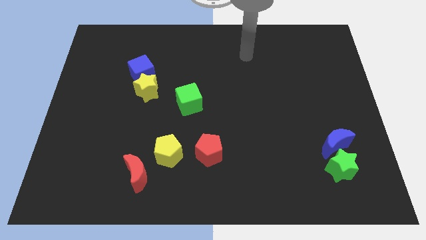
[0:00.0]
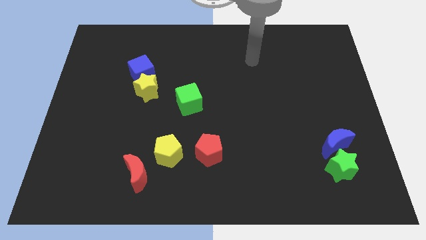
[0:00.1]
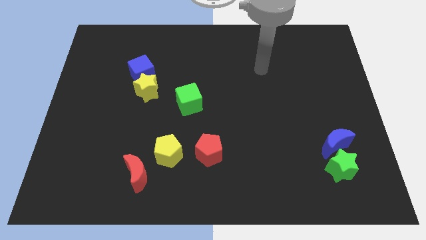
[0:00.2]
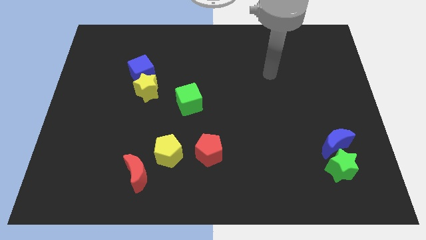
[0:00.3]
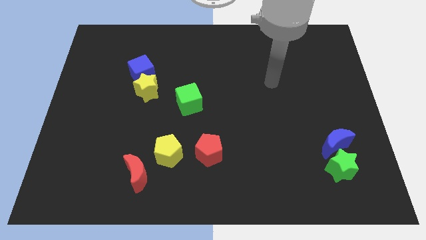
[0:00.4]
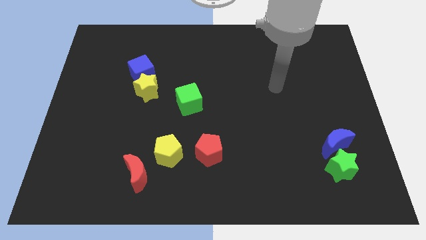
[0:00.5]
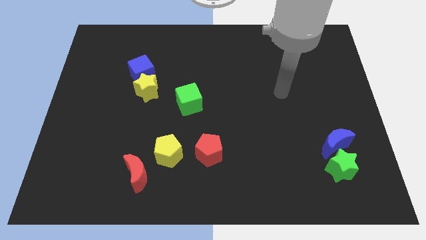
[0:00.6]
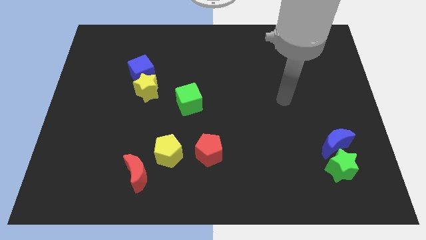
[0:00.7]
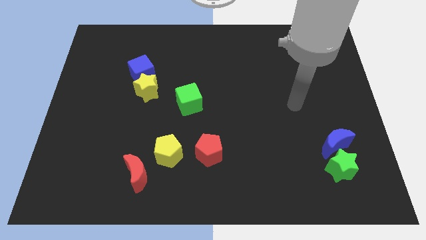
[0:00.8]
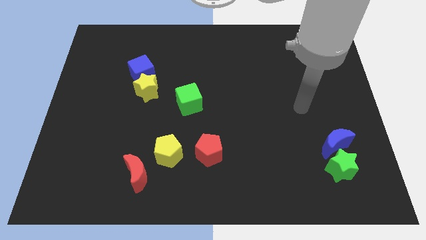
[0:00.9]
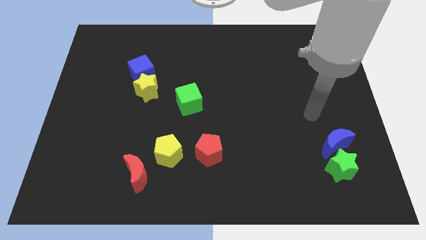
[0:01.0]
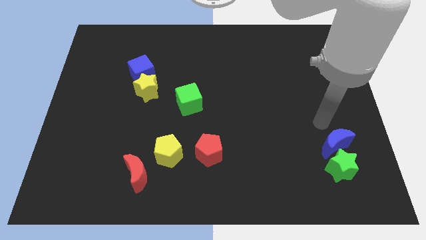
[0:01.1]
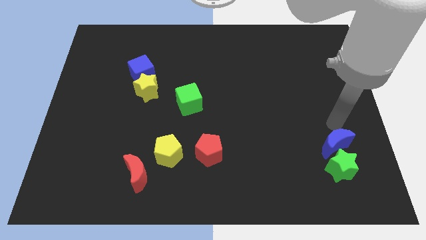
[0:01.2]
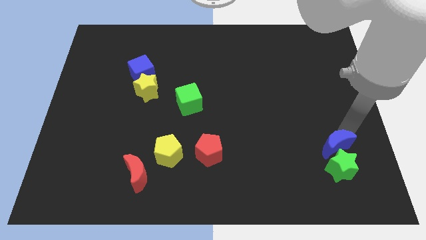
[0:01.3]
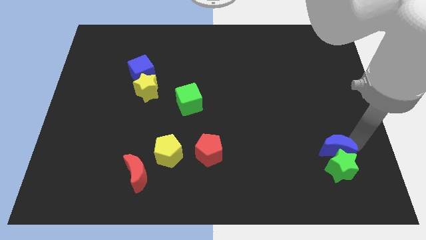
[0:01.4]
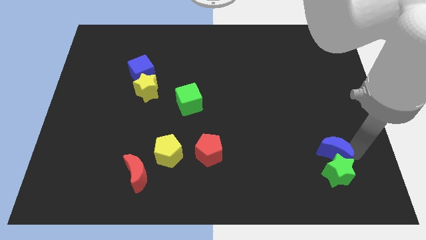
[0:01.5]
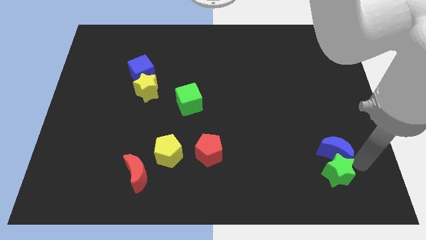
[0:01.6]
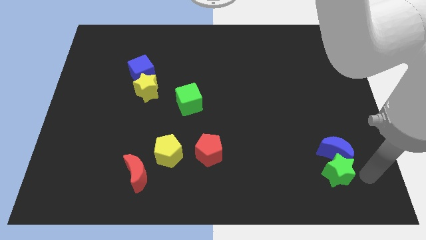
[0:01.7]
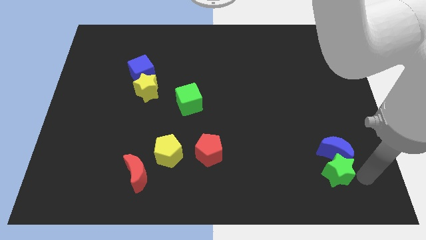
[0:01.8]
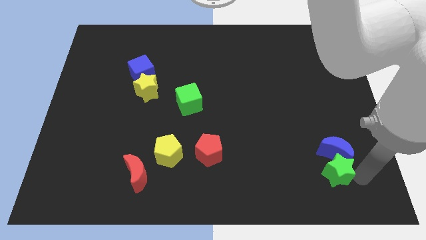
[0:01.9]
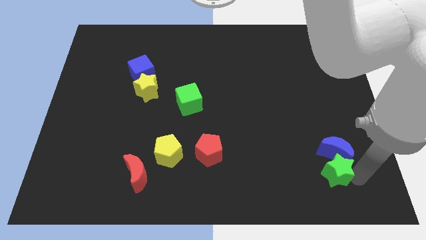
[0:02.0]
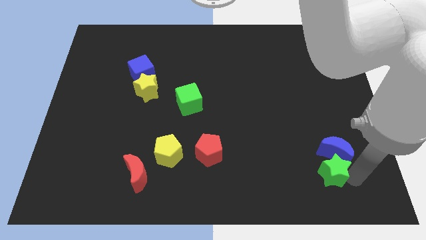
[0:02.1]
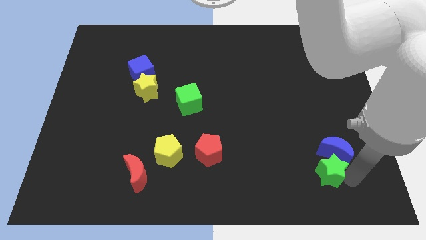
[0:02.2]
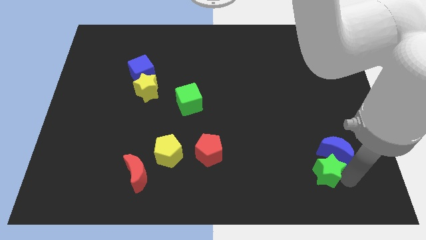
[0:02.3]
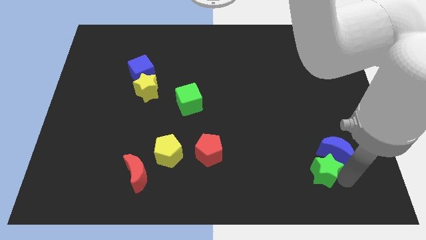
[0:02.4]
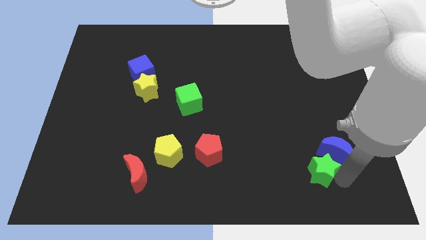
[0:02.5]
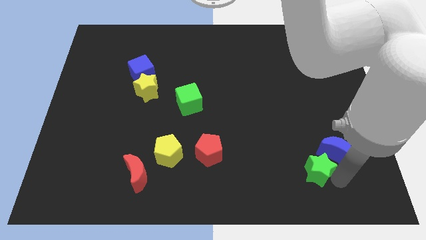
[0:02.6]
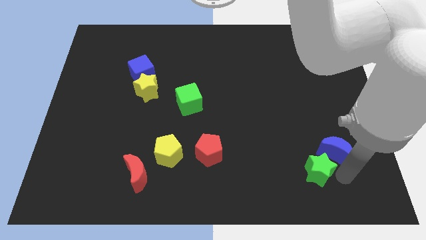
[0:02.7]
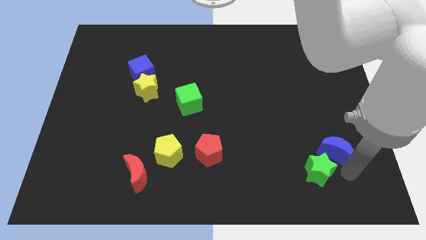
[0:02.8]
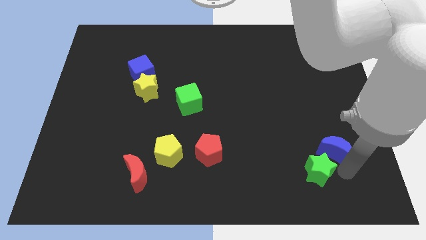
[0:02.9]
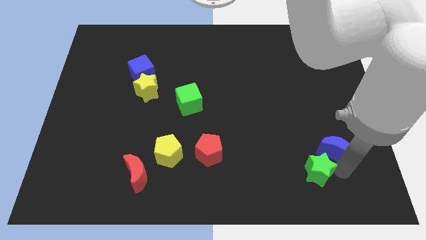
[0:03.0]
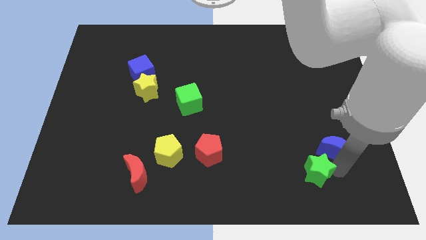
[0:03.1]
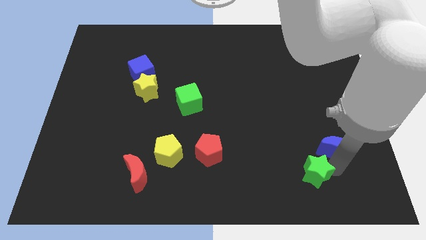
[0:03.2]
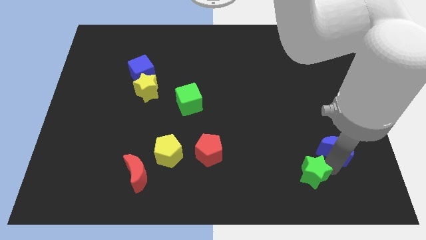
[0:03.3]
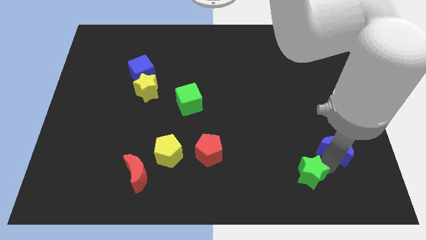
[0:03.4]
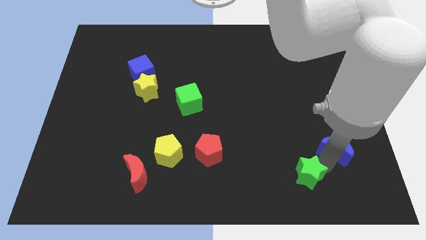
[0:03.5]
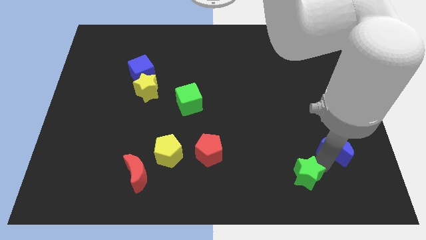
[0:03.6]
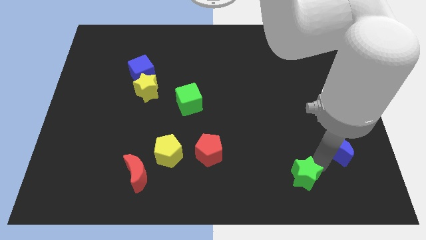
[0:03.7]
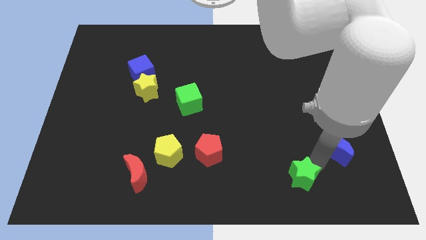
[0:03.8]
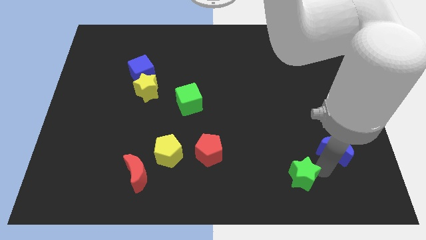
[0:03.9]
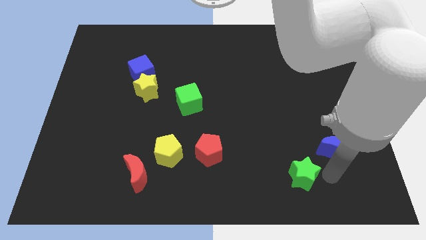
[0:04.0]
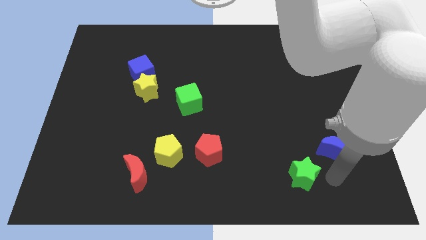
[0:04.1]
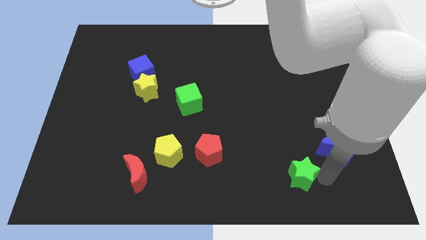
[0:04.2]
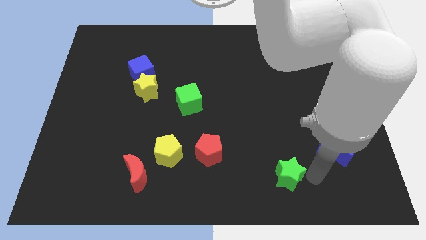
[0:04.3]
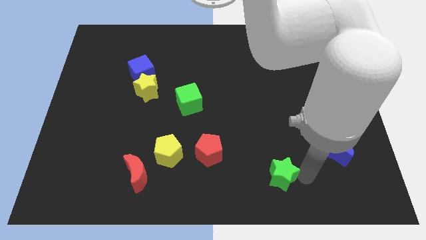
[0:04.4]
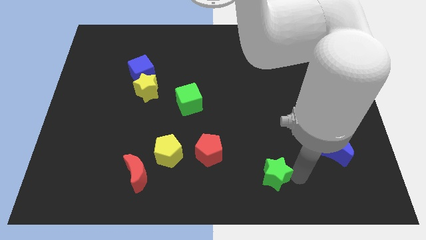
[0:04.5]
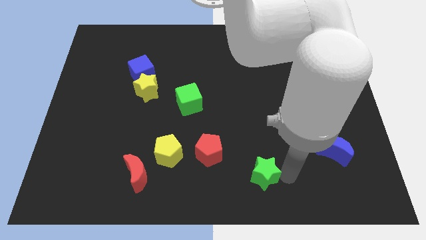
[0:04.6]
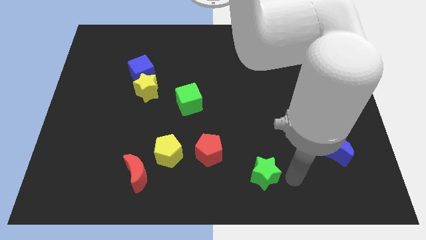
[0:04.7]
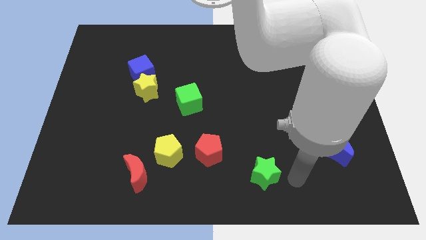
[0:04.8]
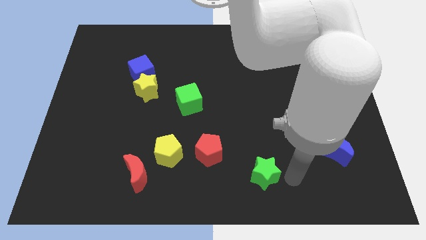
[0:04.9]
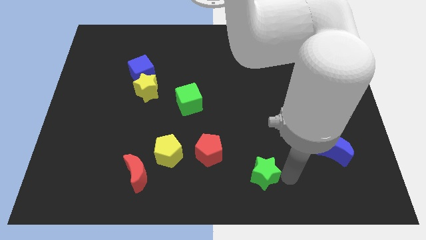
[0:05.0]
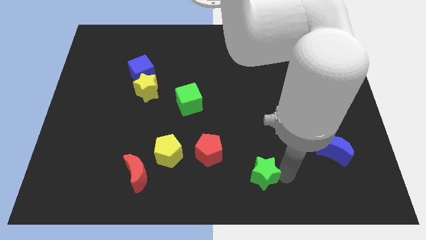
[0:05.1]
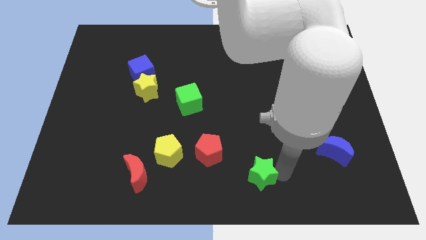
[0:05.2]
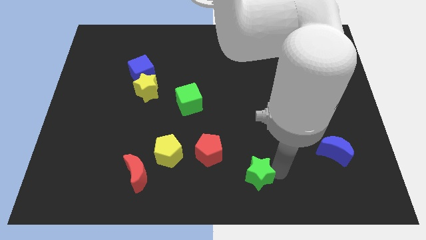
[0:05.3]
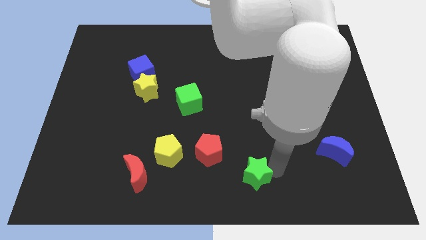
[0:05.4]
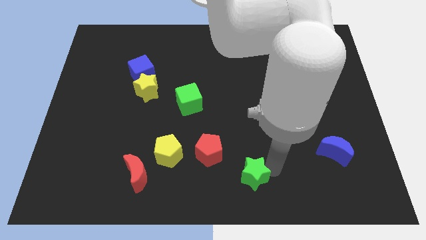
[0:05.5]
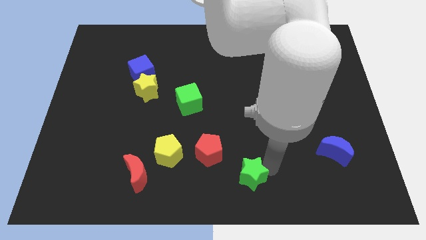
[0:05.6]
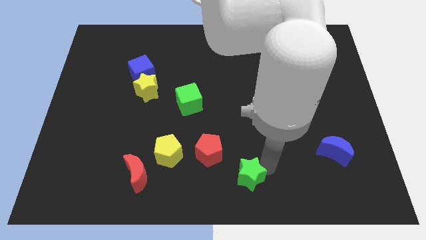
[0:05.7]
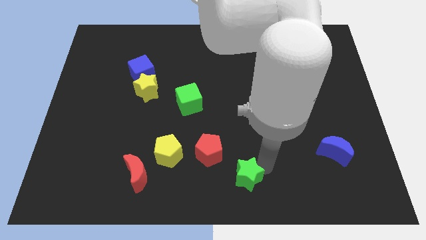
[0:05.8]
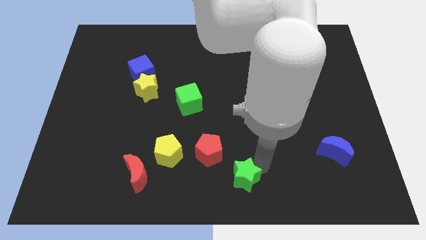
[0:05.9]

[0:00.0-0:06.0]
push the green star to the left

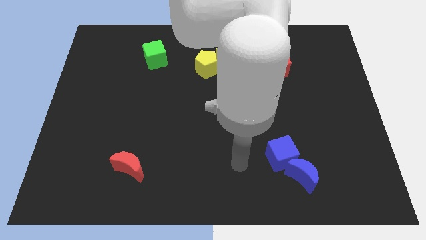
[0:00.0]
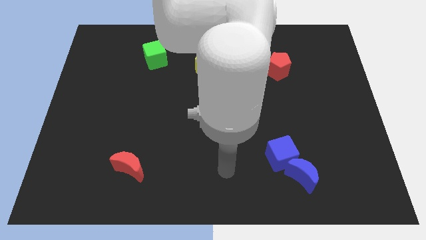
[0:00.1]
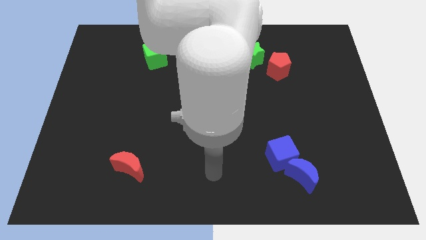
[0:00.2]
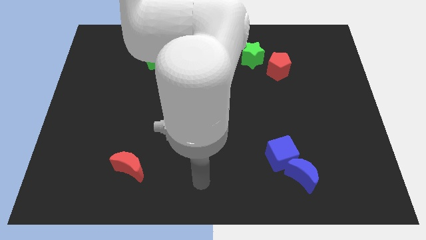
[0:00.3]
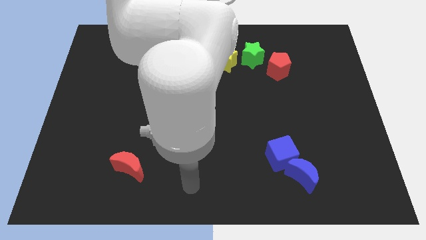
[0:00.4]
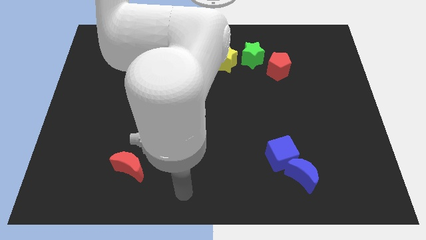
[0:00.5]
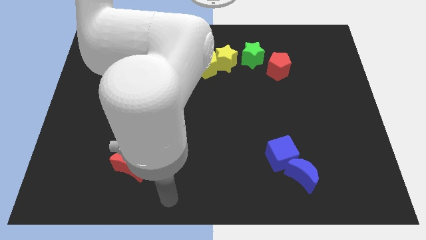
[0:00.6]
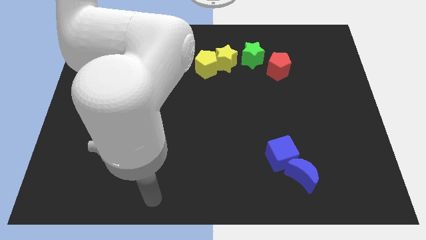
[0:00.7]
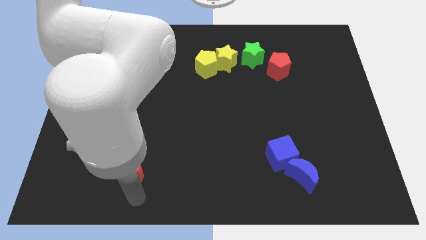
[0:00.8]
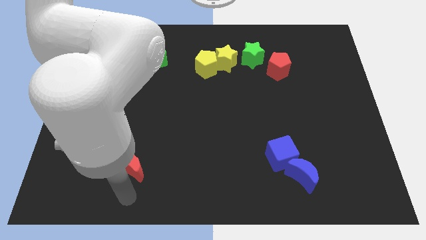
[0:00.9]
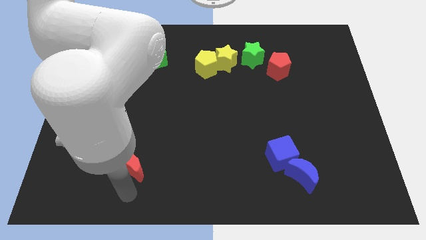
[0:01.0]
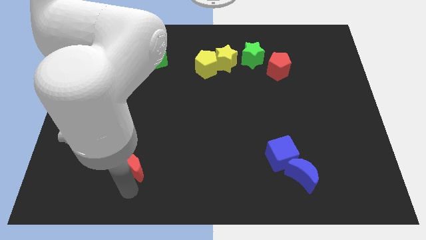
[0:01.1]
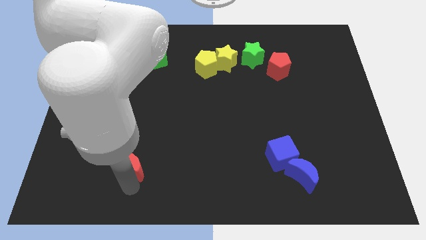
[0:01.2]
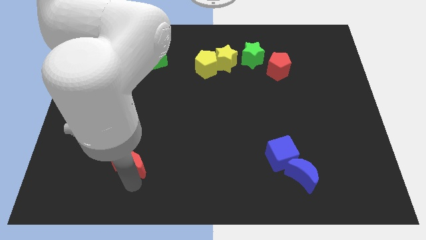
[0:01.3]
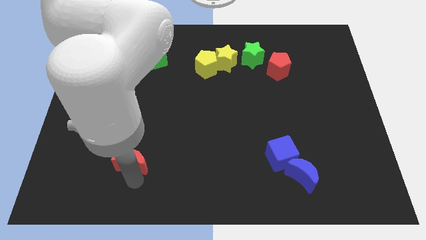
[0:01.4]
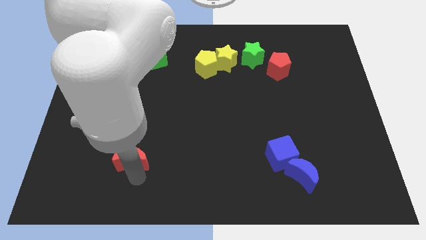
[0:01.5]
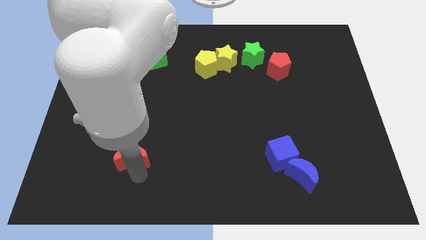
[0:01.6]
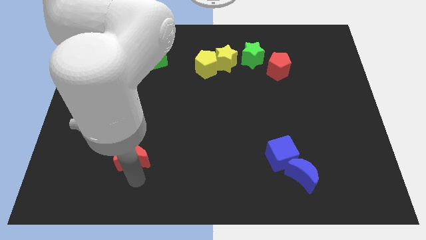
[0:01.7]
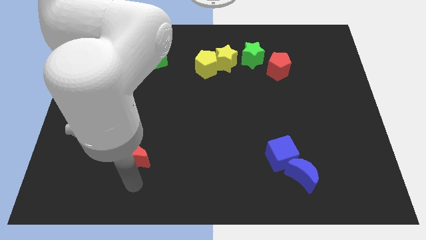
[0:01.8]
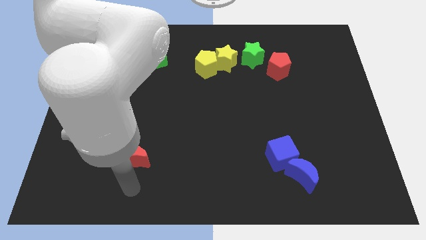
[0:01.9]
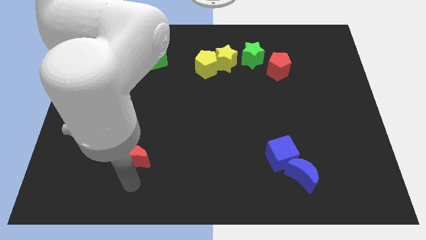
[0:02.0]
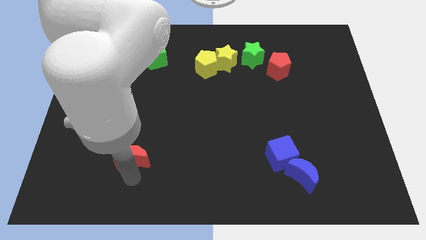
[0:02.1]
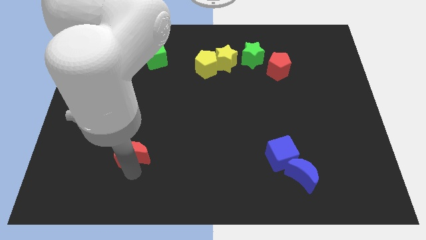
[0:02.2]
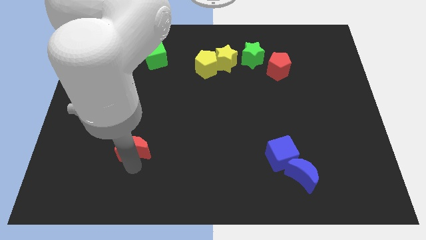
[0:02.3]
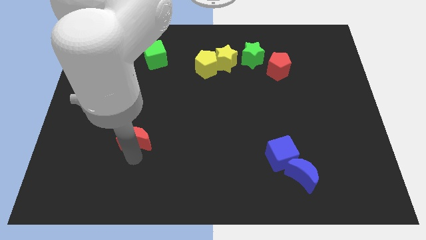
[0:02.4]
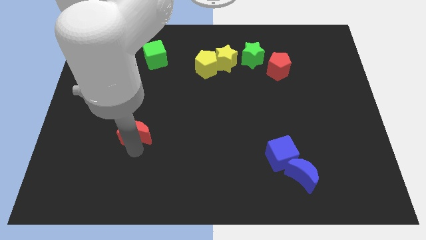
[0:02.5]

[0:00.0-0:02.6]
slide the red moon up a bit
